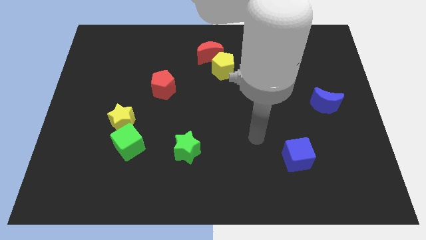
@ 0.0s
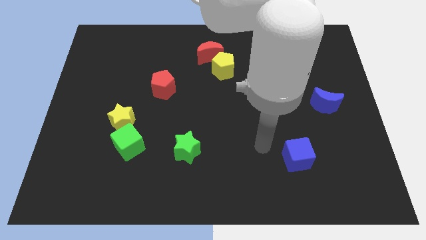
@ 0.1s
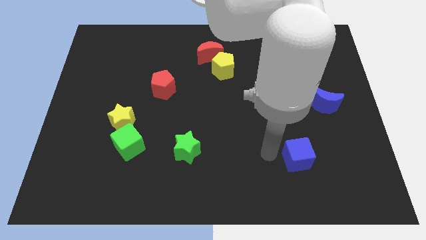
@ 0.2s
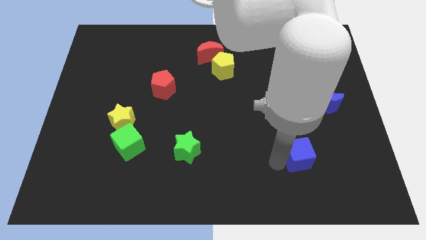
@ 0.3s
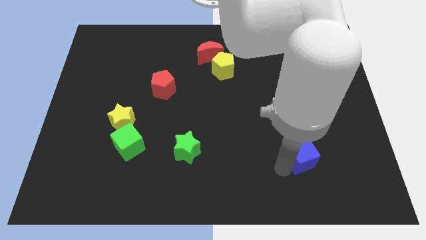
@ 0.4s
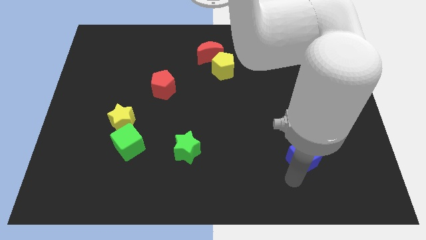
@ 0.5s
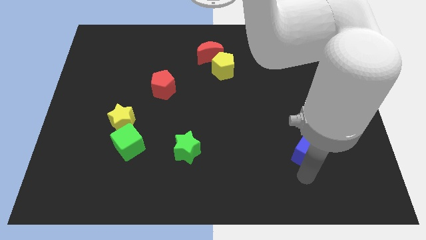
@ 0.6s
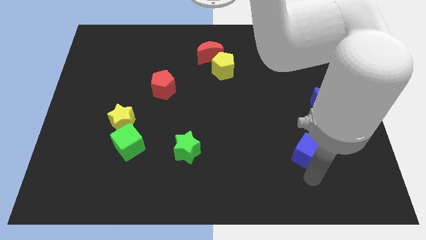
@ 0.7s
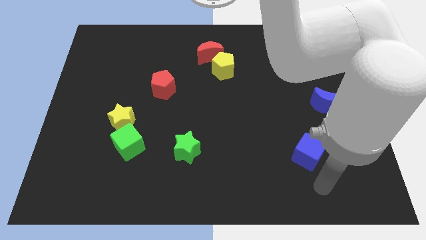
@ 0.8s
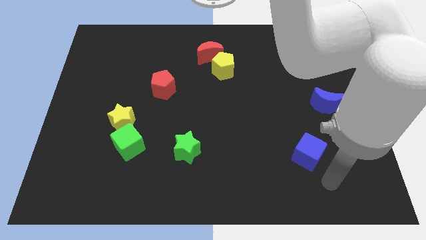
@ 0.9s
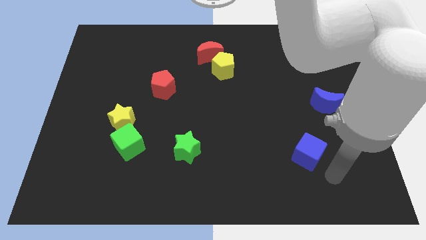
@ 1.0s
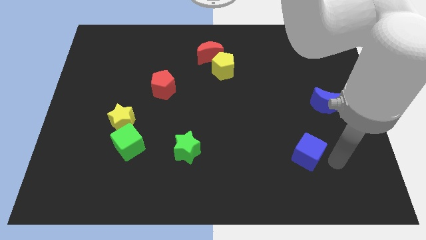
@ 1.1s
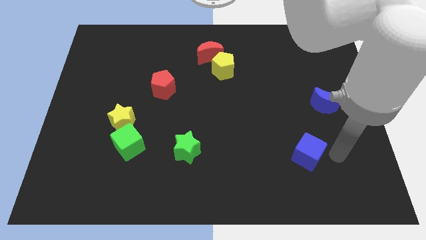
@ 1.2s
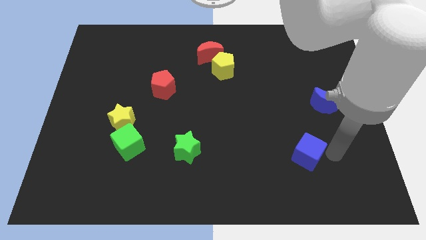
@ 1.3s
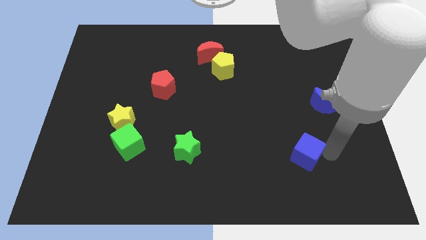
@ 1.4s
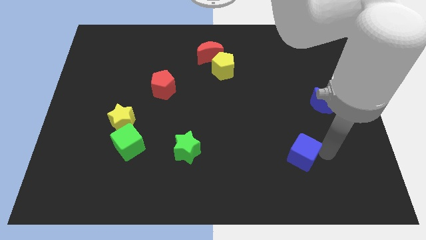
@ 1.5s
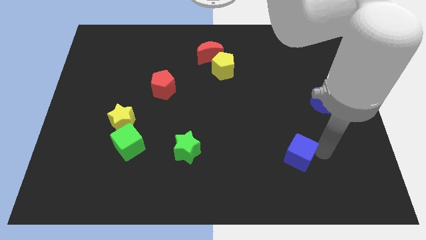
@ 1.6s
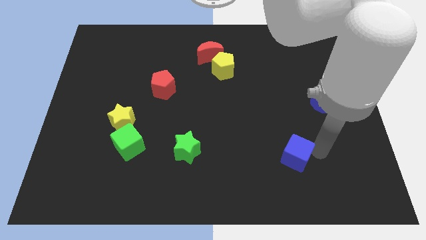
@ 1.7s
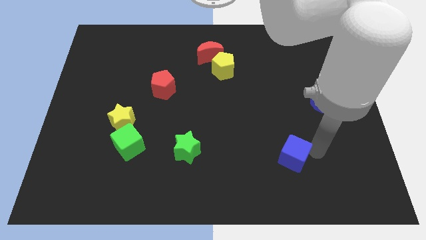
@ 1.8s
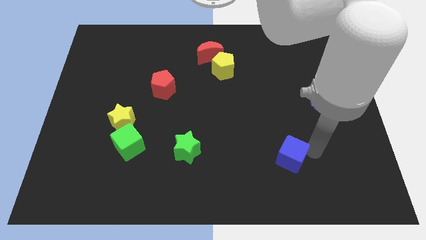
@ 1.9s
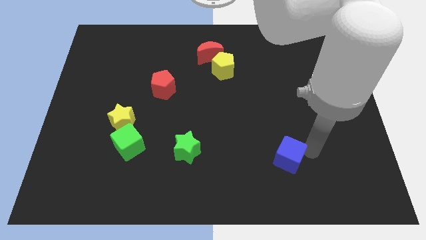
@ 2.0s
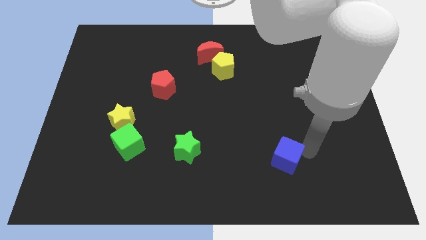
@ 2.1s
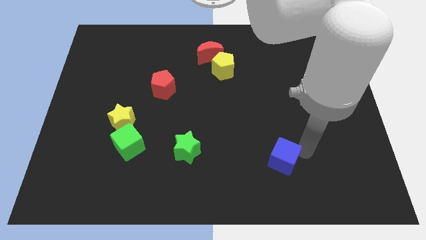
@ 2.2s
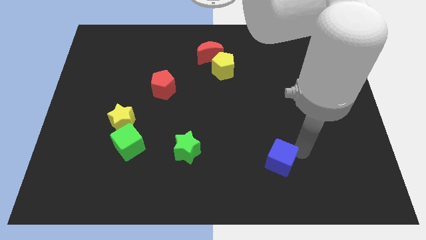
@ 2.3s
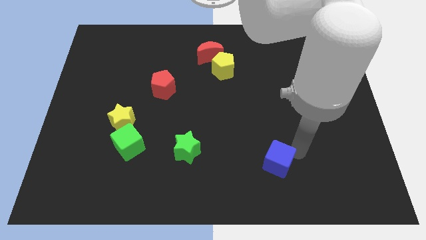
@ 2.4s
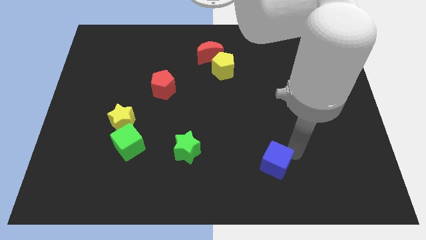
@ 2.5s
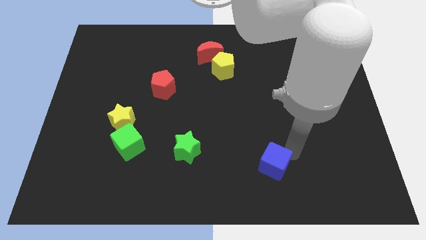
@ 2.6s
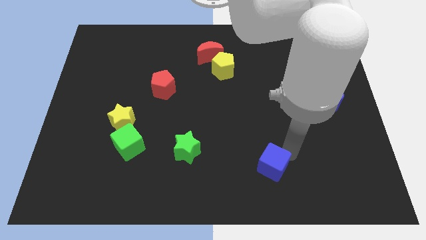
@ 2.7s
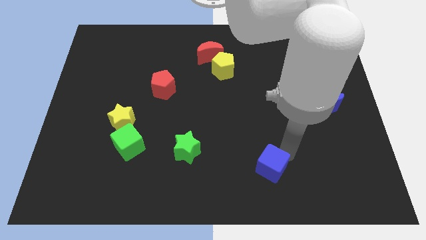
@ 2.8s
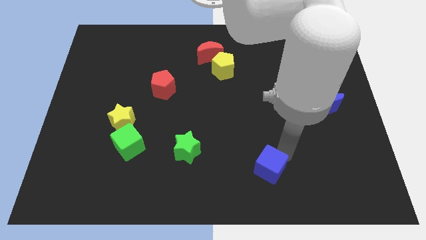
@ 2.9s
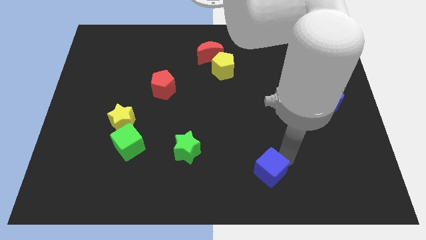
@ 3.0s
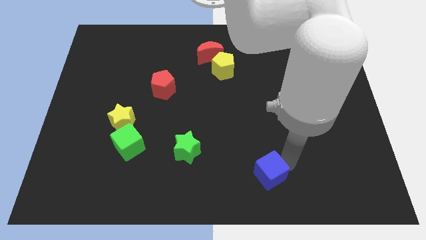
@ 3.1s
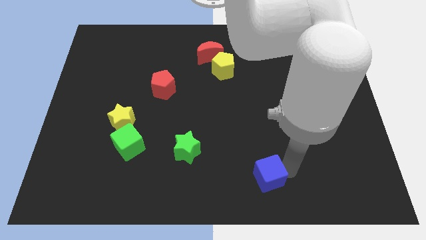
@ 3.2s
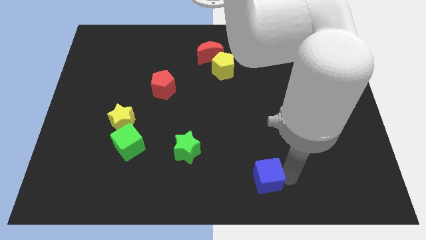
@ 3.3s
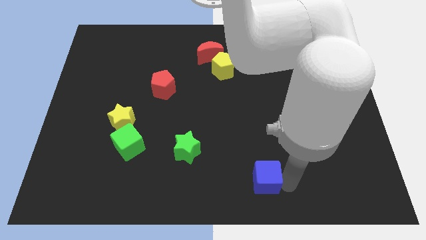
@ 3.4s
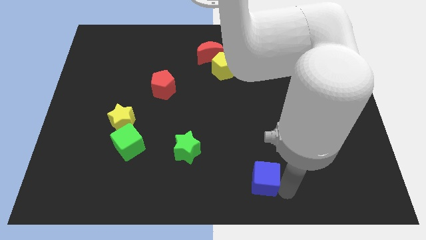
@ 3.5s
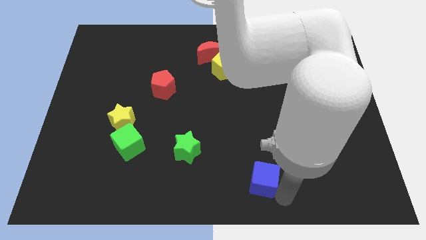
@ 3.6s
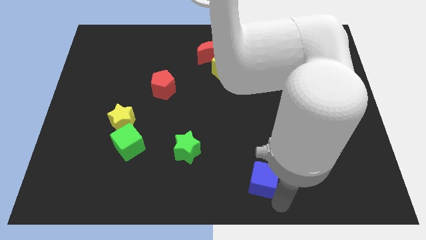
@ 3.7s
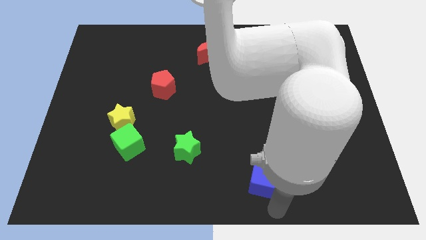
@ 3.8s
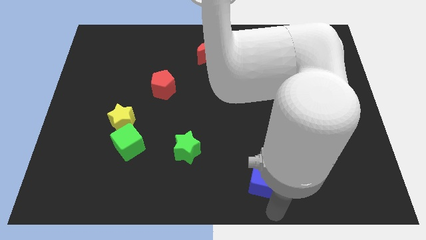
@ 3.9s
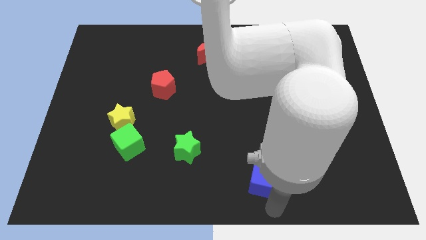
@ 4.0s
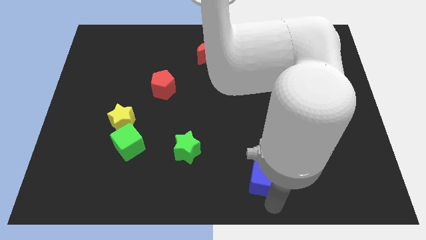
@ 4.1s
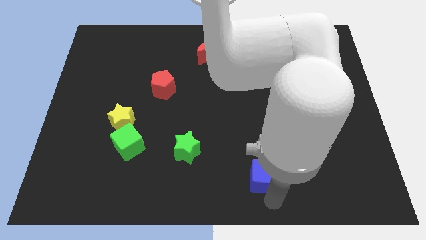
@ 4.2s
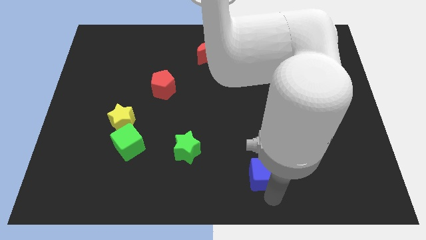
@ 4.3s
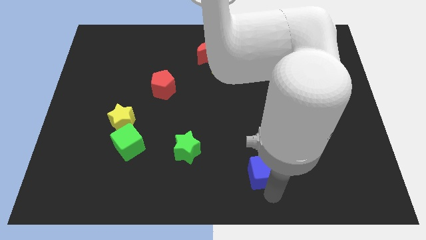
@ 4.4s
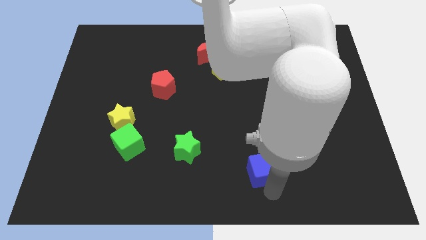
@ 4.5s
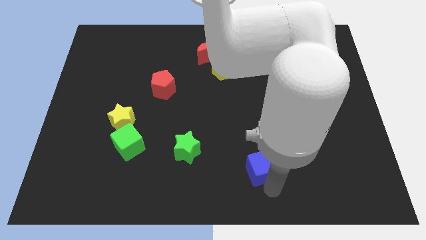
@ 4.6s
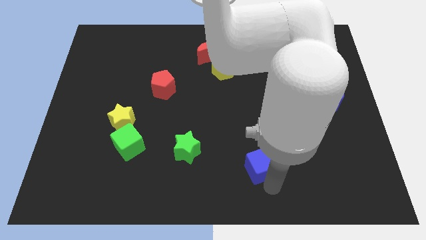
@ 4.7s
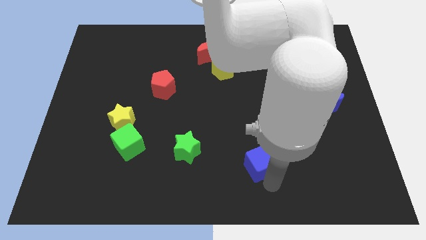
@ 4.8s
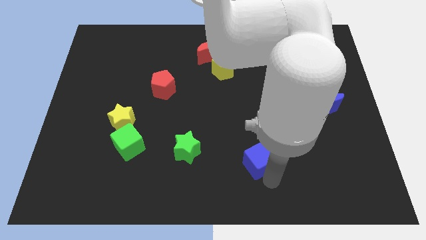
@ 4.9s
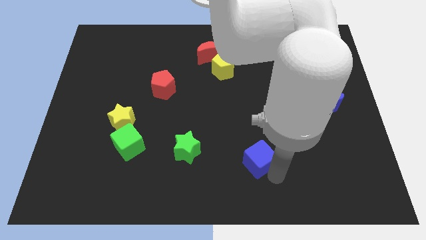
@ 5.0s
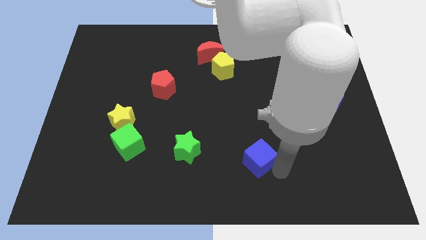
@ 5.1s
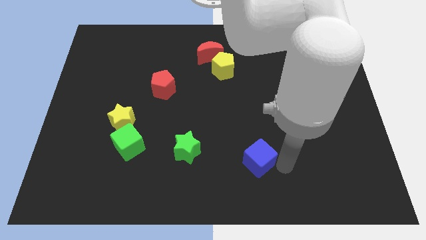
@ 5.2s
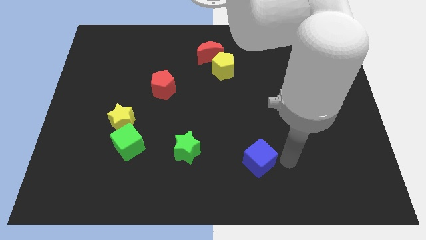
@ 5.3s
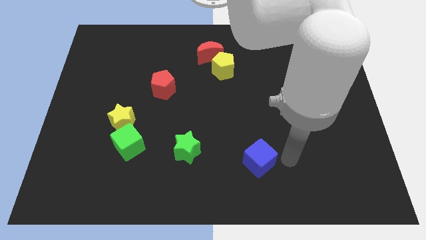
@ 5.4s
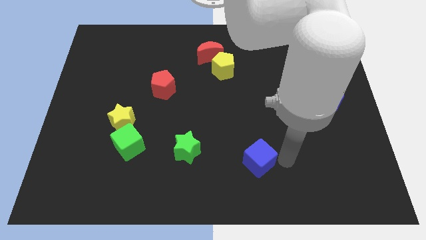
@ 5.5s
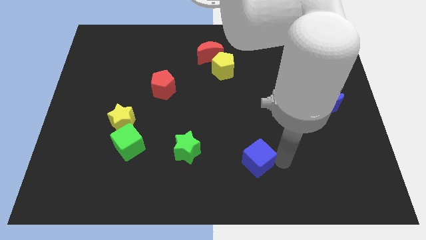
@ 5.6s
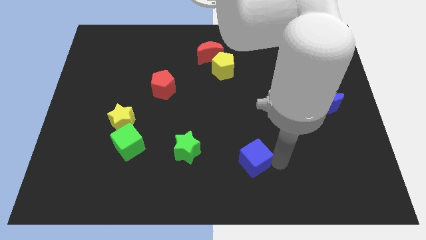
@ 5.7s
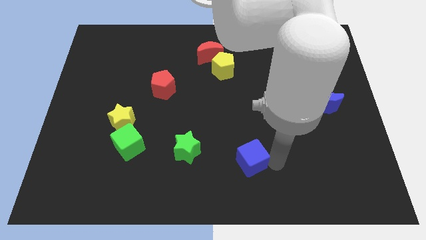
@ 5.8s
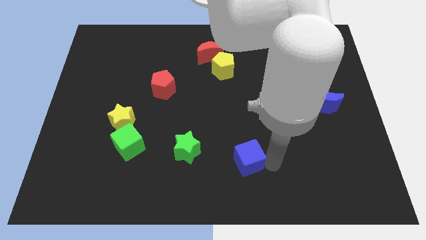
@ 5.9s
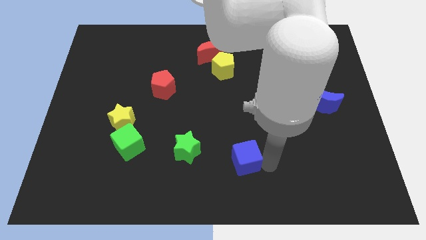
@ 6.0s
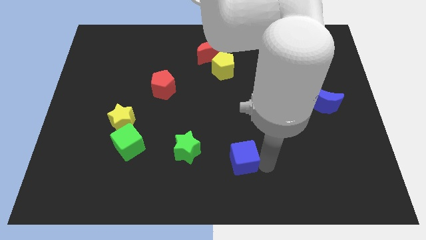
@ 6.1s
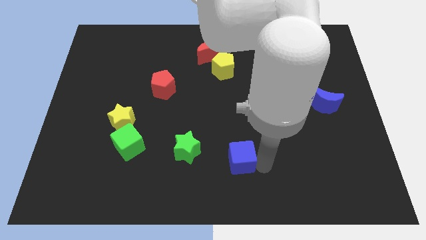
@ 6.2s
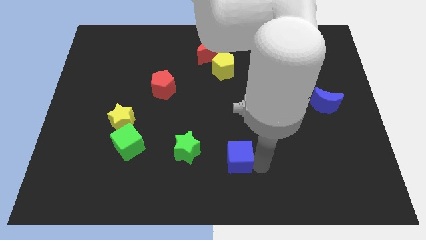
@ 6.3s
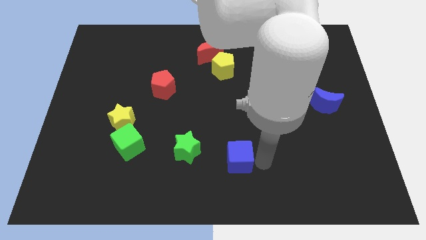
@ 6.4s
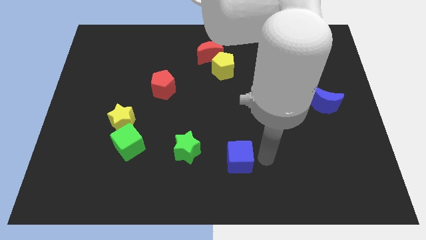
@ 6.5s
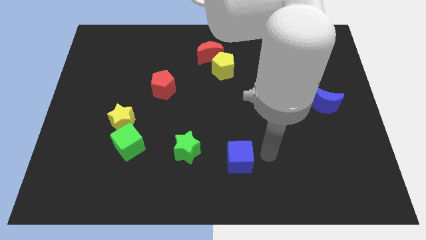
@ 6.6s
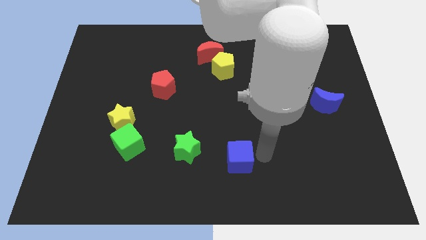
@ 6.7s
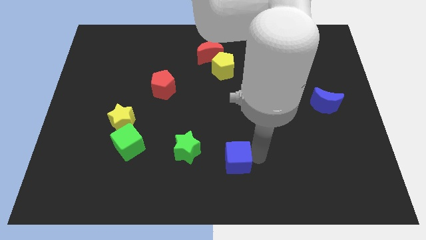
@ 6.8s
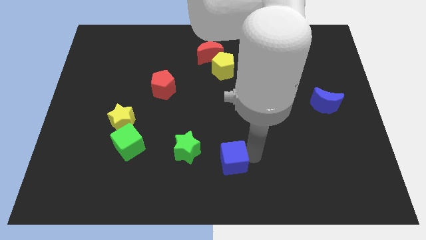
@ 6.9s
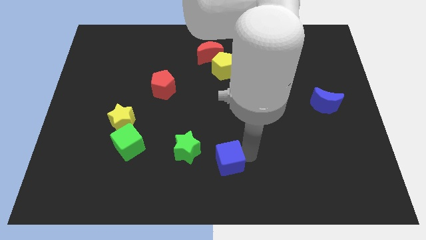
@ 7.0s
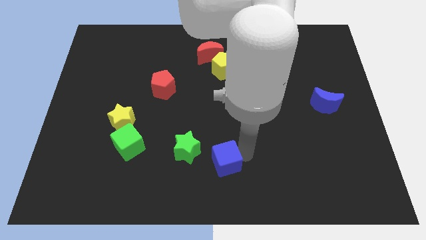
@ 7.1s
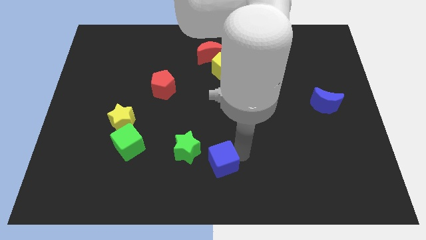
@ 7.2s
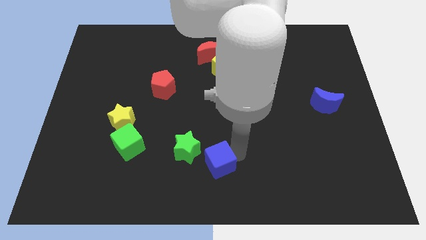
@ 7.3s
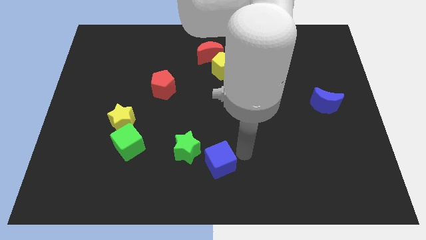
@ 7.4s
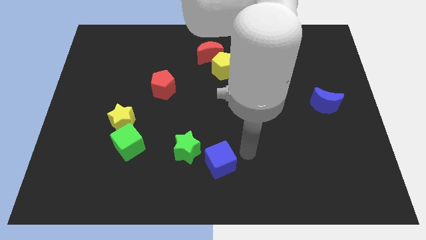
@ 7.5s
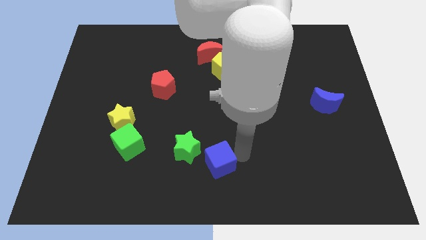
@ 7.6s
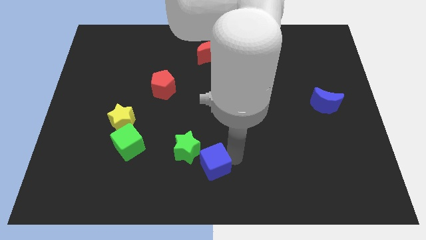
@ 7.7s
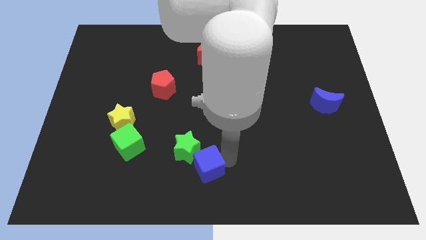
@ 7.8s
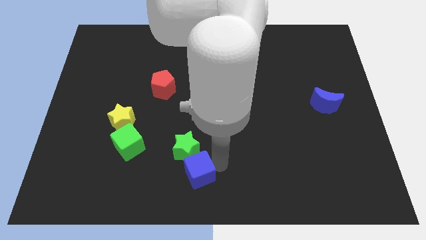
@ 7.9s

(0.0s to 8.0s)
move the blue cube to the left

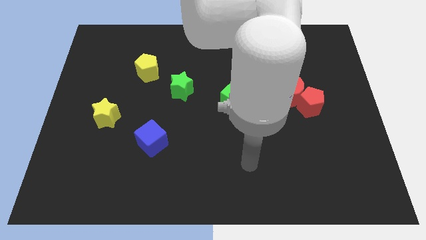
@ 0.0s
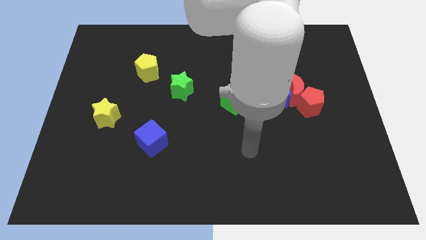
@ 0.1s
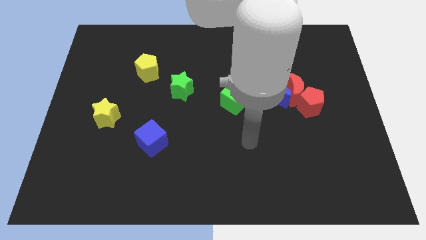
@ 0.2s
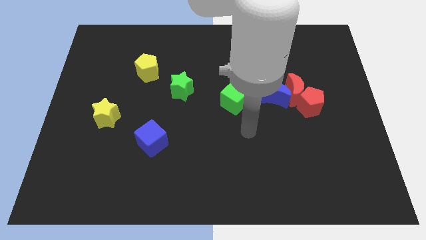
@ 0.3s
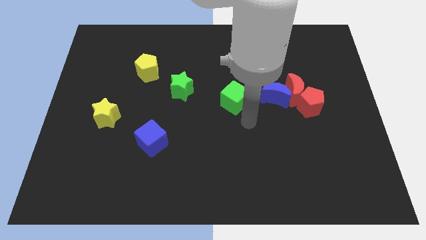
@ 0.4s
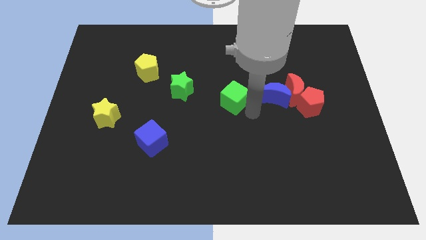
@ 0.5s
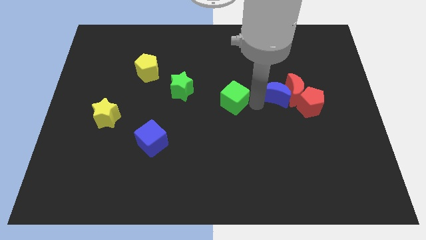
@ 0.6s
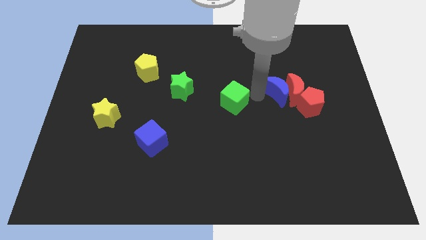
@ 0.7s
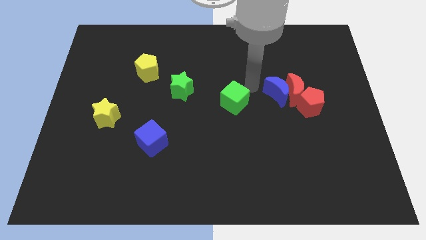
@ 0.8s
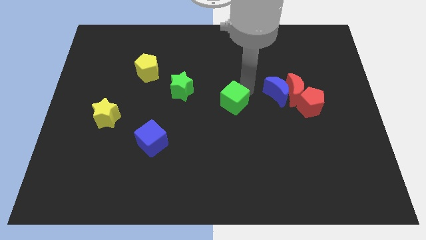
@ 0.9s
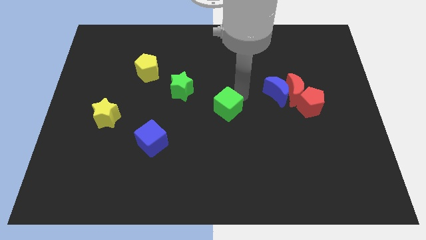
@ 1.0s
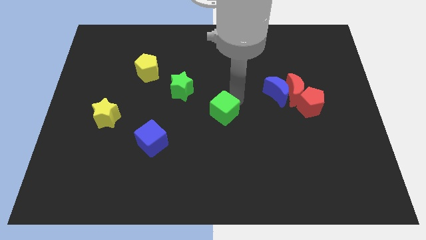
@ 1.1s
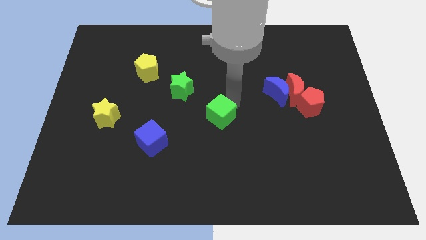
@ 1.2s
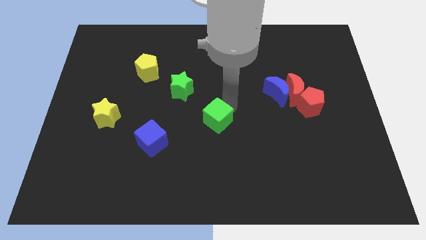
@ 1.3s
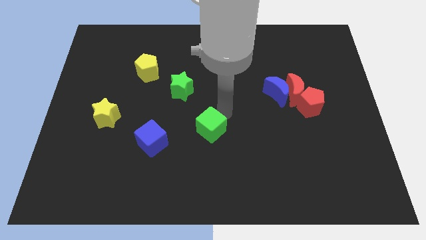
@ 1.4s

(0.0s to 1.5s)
slide the green cube a little down and then left
